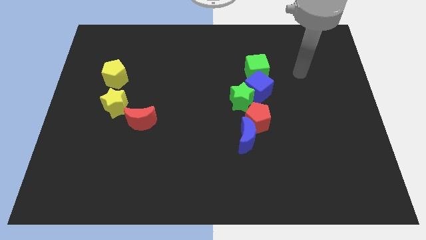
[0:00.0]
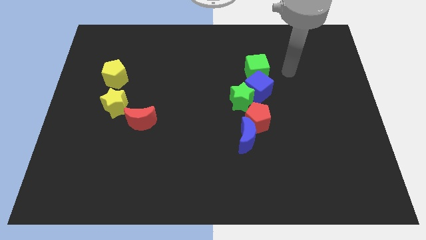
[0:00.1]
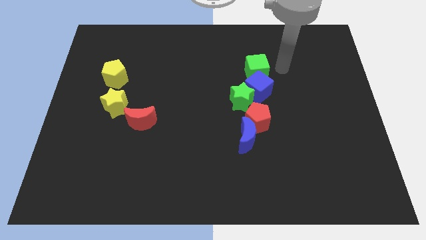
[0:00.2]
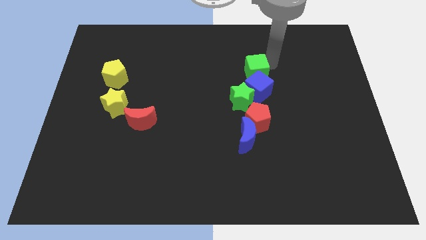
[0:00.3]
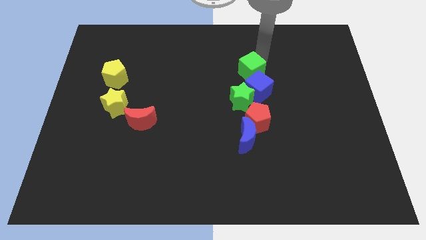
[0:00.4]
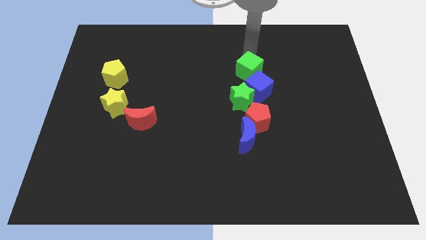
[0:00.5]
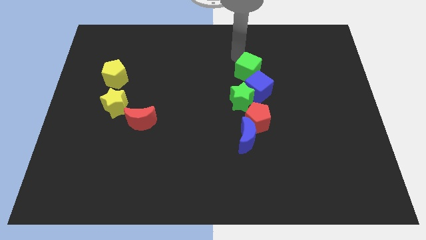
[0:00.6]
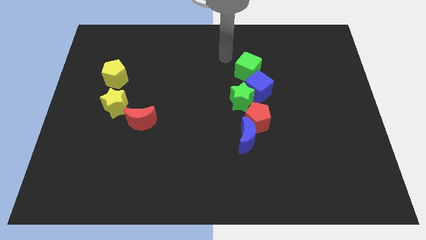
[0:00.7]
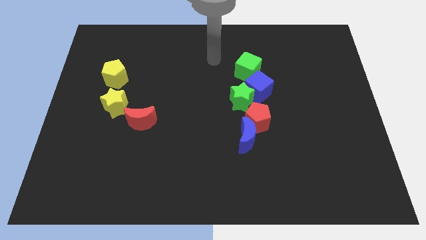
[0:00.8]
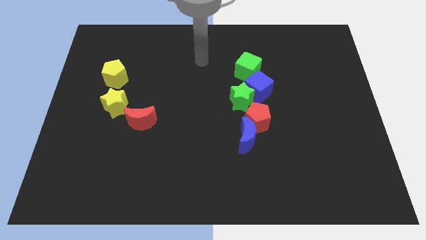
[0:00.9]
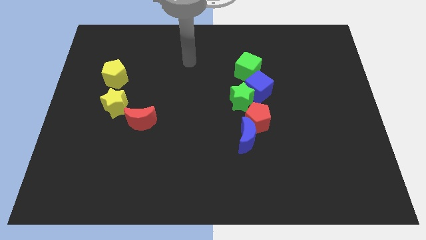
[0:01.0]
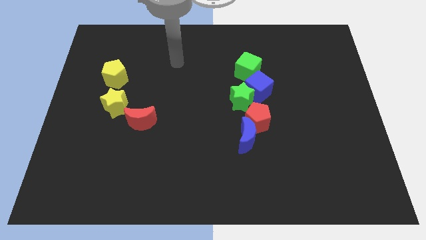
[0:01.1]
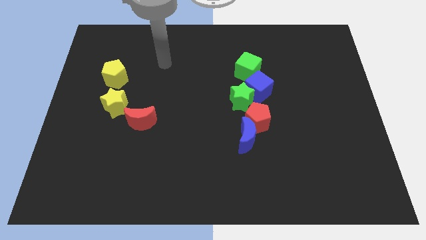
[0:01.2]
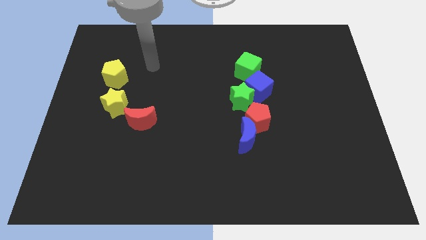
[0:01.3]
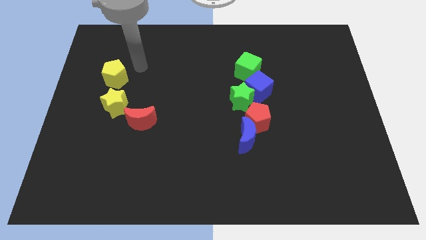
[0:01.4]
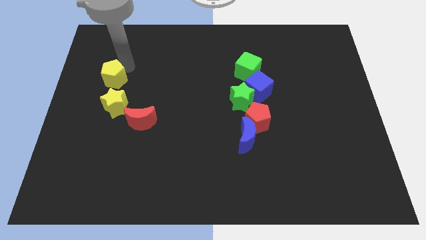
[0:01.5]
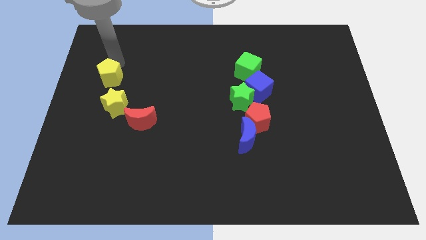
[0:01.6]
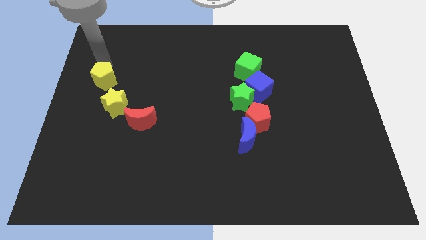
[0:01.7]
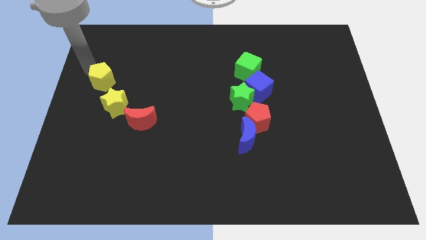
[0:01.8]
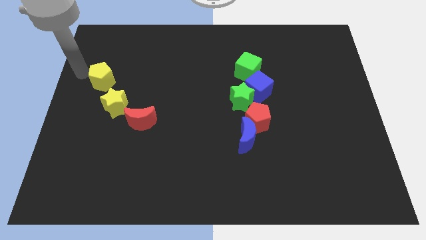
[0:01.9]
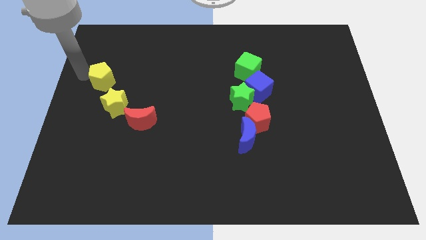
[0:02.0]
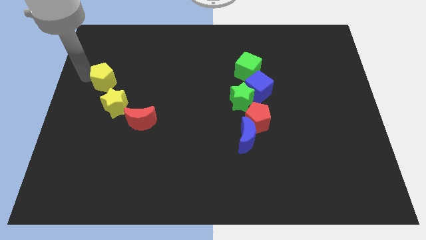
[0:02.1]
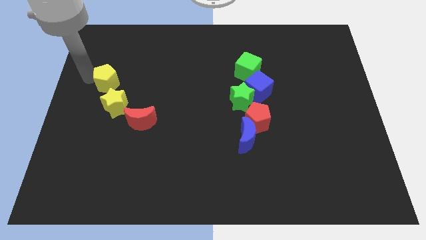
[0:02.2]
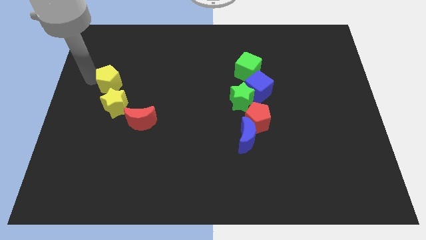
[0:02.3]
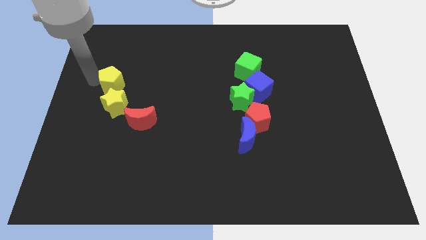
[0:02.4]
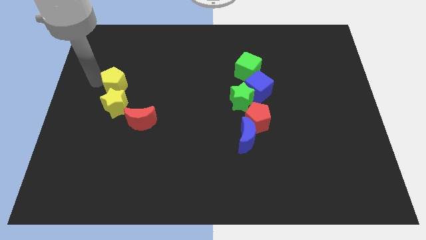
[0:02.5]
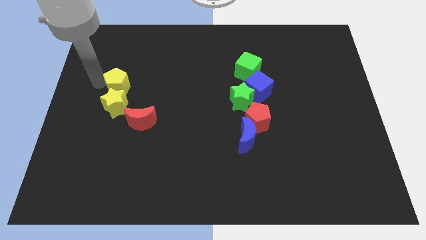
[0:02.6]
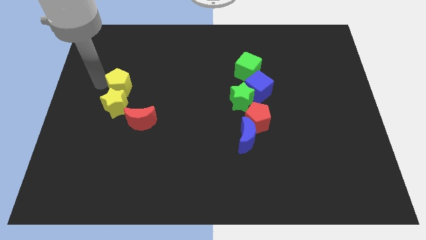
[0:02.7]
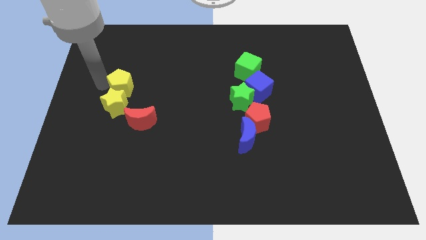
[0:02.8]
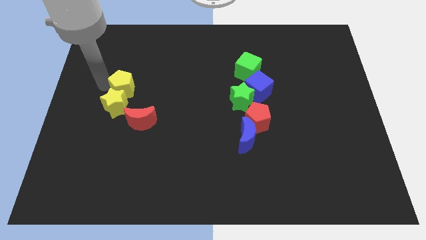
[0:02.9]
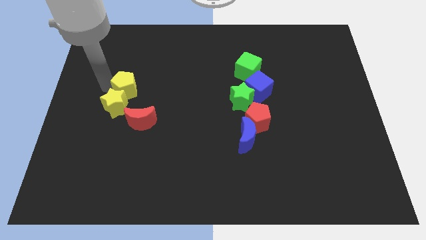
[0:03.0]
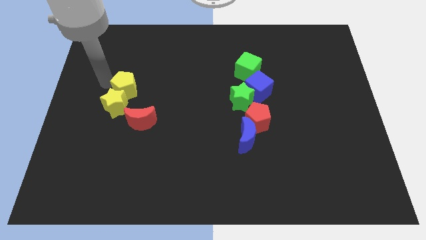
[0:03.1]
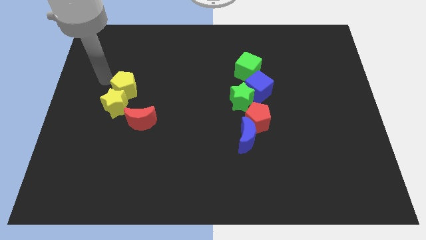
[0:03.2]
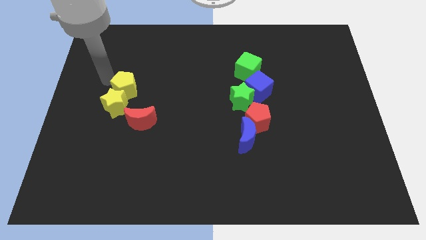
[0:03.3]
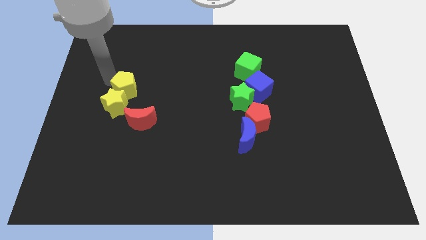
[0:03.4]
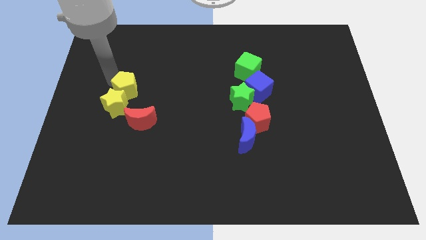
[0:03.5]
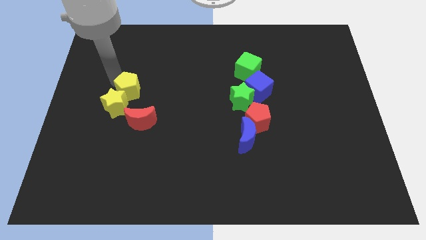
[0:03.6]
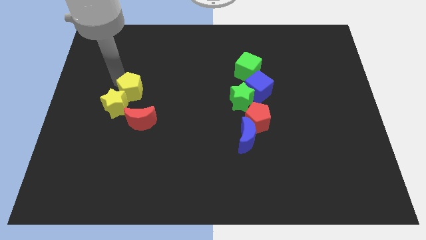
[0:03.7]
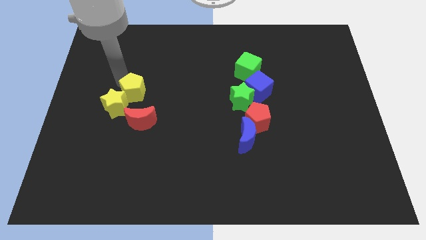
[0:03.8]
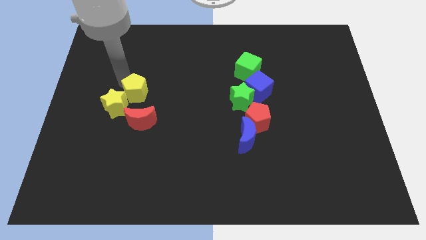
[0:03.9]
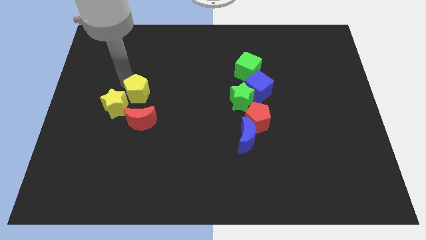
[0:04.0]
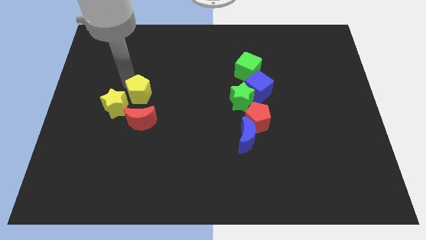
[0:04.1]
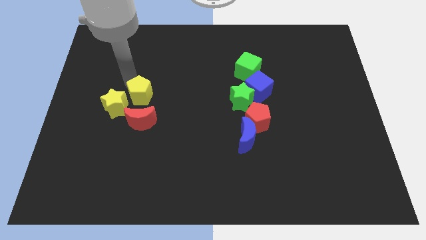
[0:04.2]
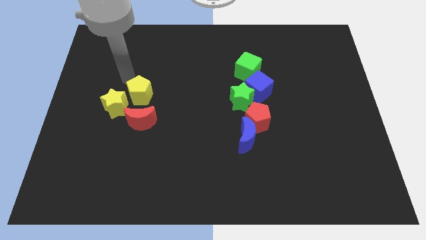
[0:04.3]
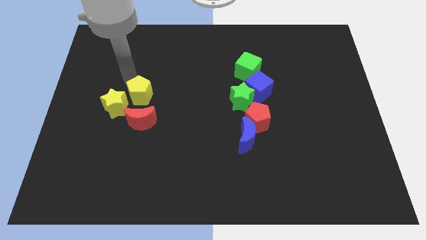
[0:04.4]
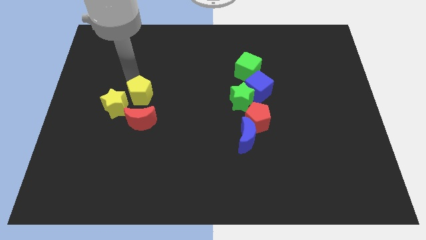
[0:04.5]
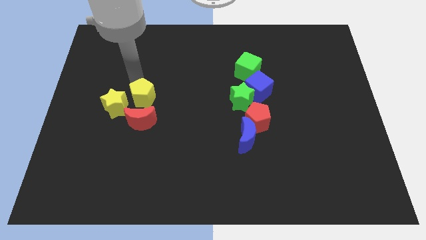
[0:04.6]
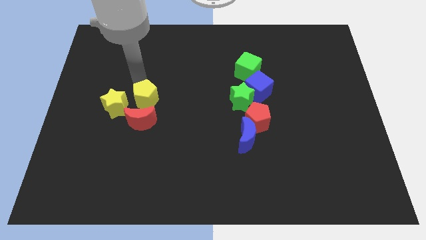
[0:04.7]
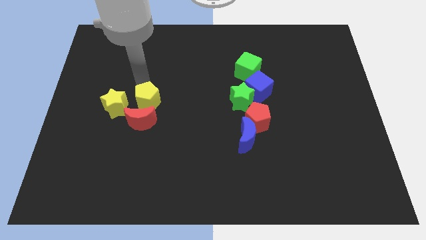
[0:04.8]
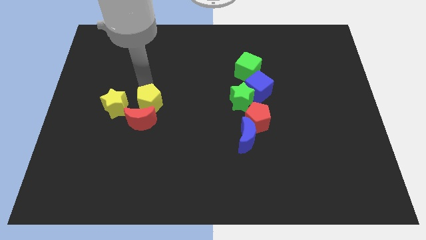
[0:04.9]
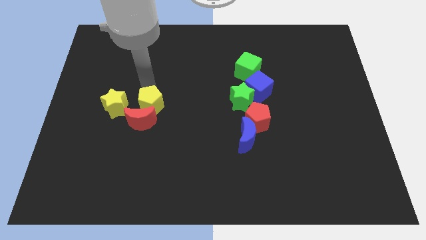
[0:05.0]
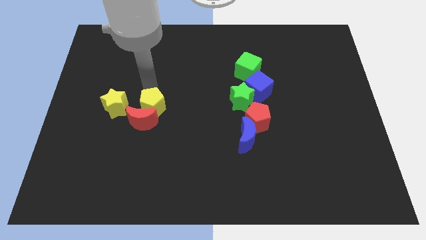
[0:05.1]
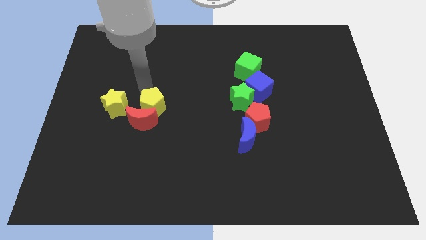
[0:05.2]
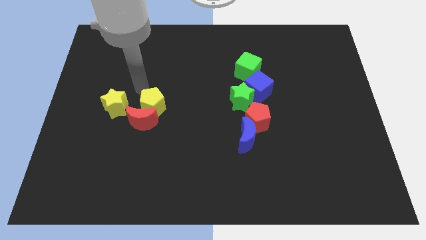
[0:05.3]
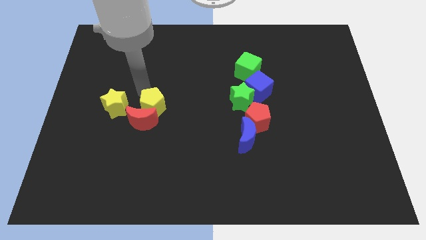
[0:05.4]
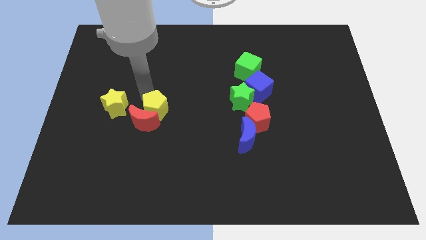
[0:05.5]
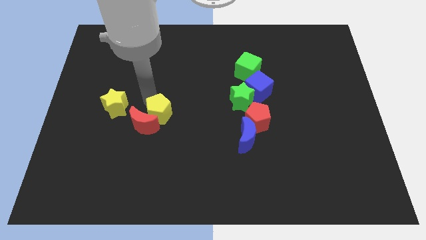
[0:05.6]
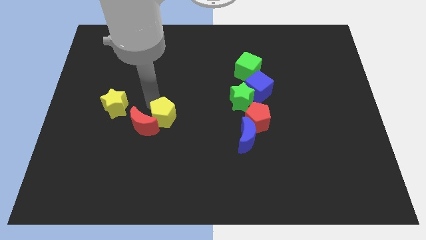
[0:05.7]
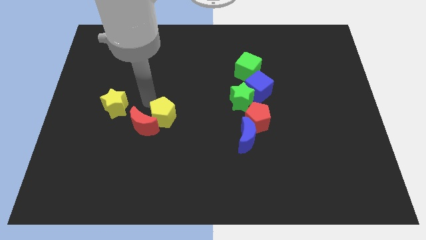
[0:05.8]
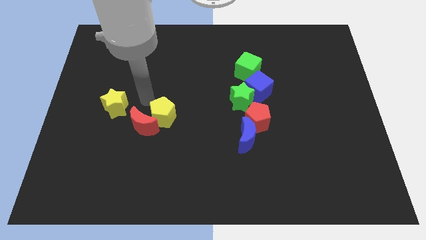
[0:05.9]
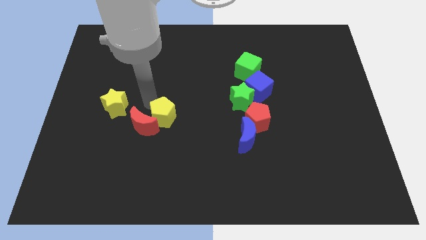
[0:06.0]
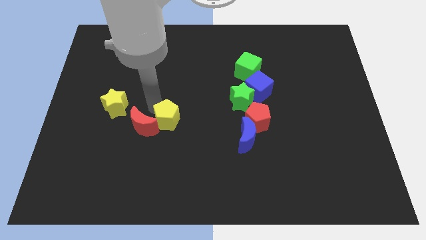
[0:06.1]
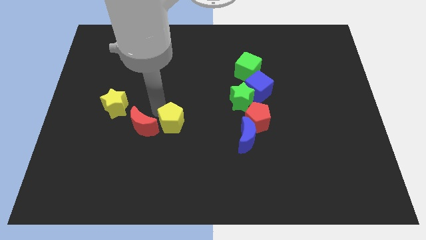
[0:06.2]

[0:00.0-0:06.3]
push the yellow pentagon downwards and to the right

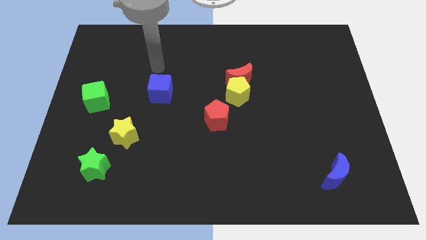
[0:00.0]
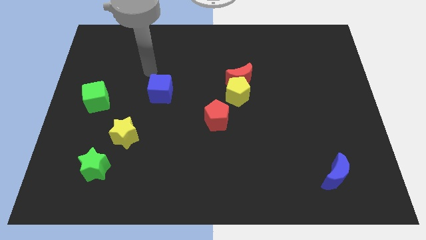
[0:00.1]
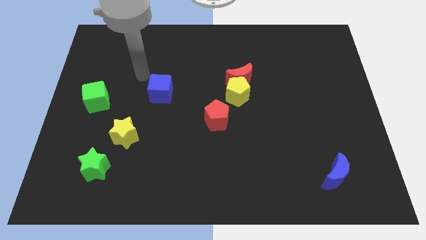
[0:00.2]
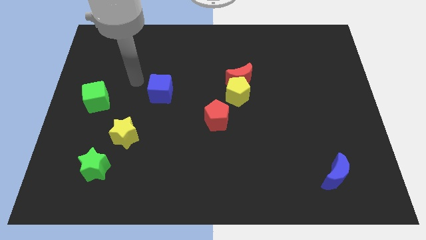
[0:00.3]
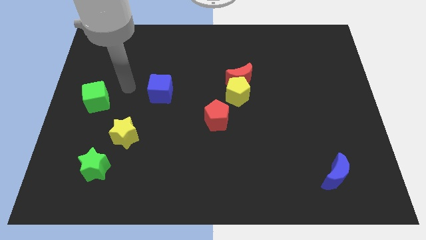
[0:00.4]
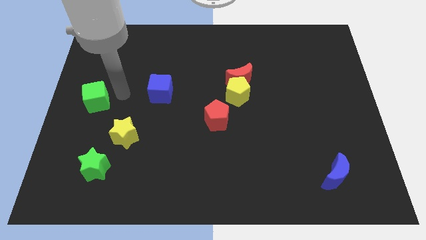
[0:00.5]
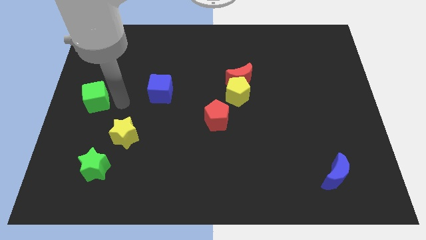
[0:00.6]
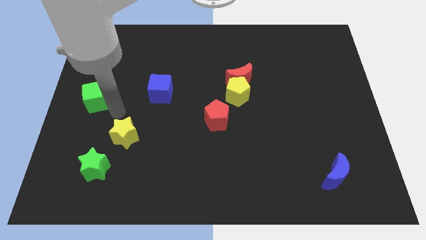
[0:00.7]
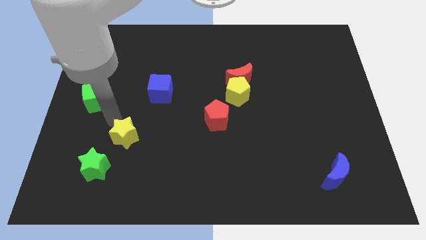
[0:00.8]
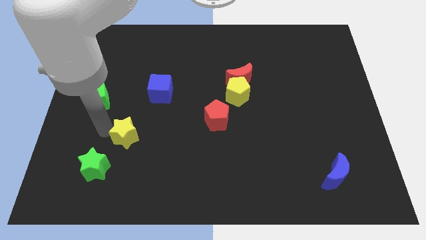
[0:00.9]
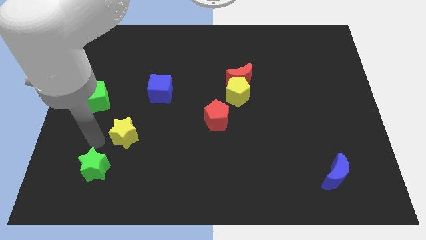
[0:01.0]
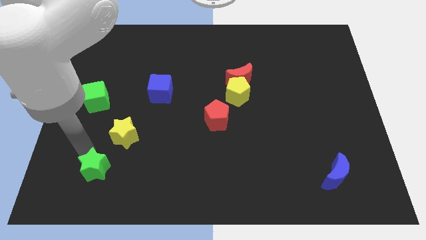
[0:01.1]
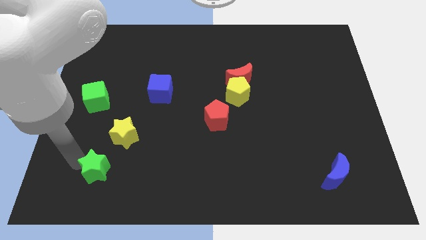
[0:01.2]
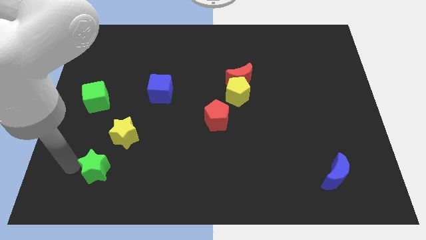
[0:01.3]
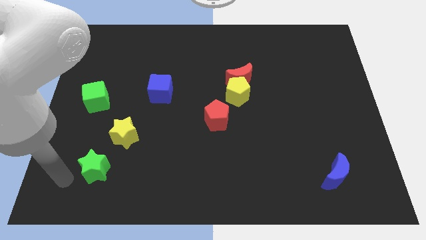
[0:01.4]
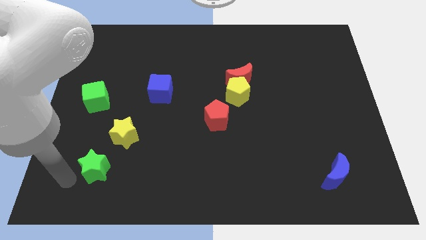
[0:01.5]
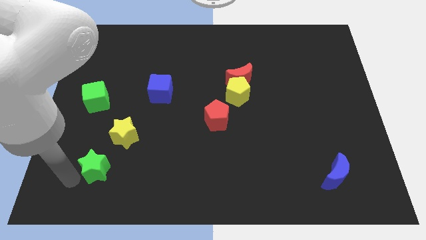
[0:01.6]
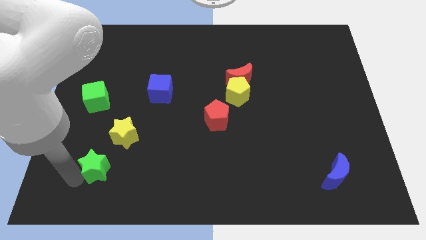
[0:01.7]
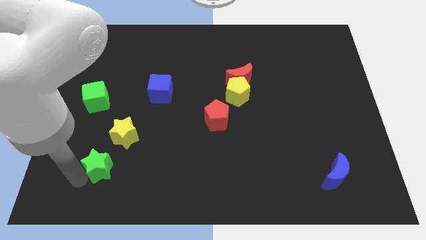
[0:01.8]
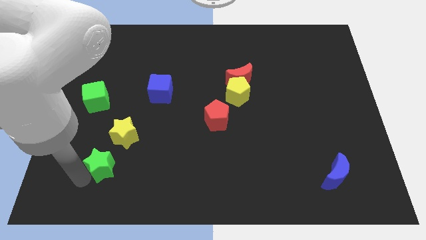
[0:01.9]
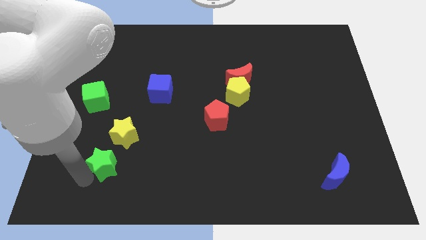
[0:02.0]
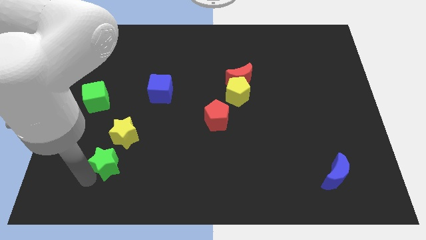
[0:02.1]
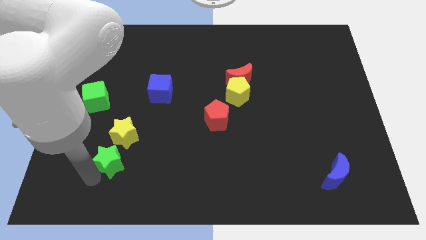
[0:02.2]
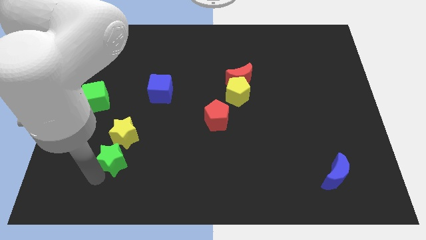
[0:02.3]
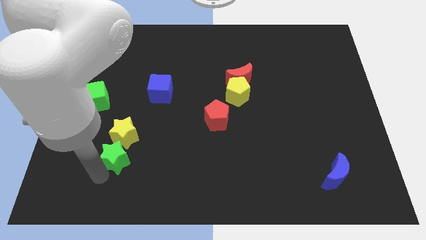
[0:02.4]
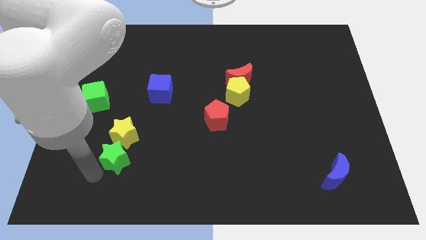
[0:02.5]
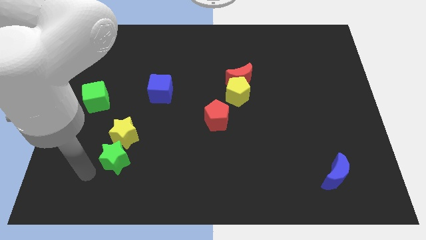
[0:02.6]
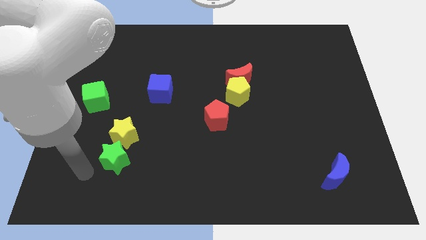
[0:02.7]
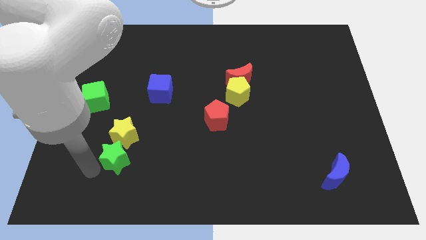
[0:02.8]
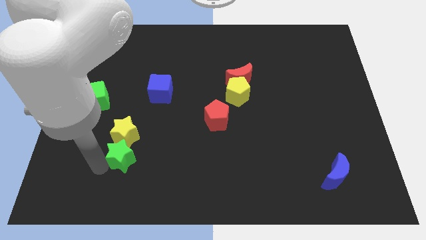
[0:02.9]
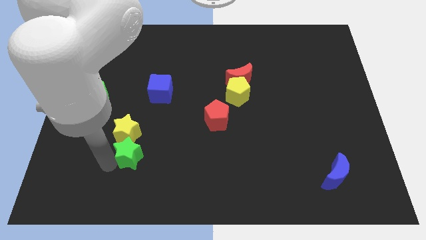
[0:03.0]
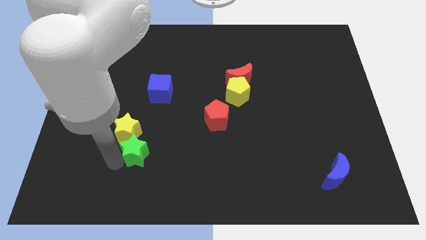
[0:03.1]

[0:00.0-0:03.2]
slide the green star up and right diagonally somewhat
